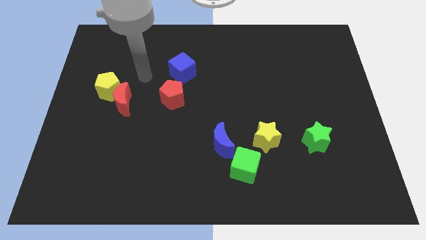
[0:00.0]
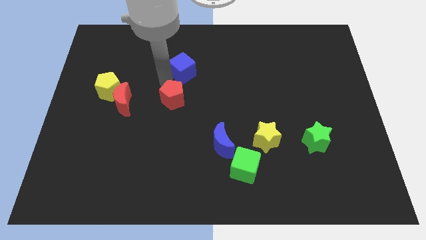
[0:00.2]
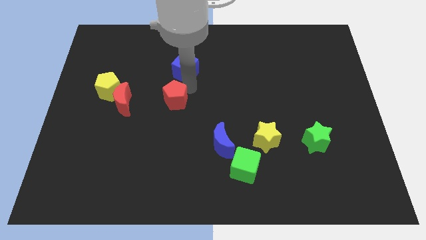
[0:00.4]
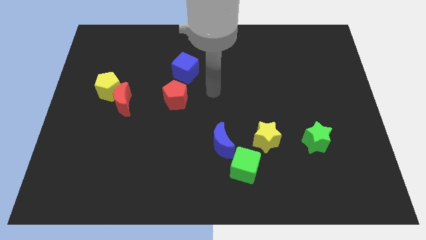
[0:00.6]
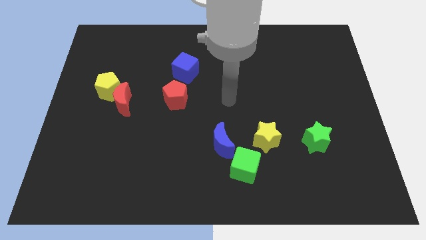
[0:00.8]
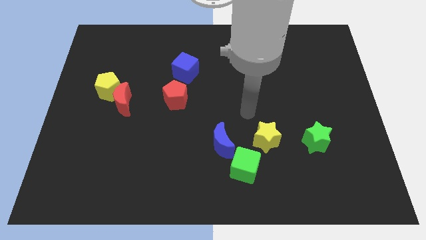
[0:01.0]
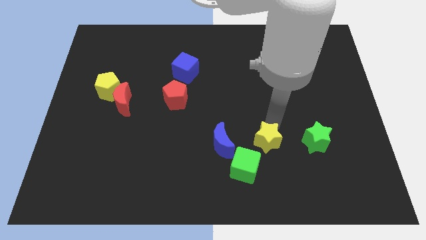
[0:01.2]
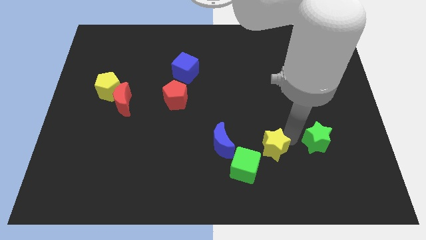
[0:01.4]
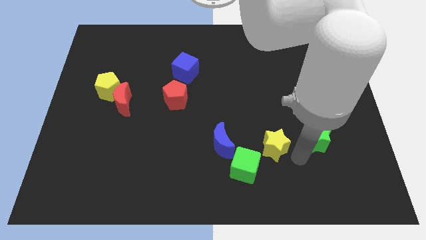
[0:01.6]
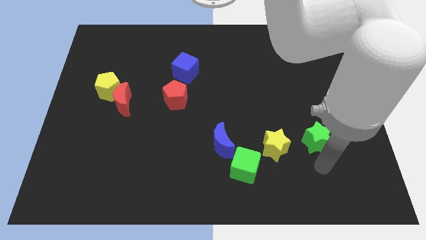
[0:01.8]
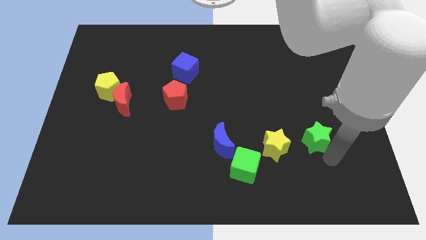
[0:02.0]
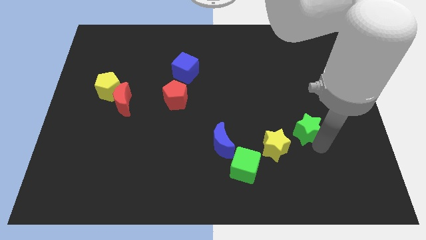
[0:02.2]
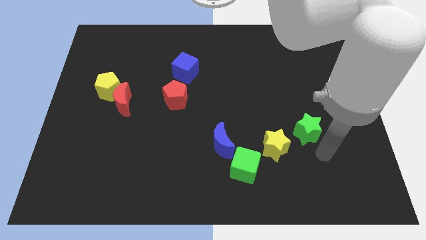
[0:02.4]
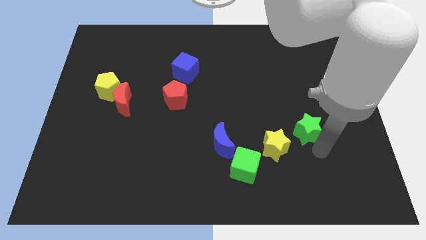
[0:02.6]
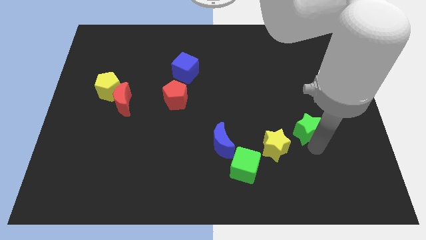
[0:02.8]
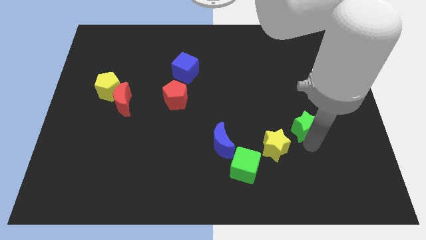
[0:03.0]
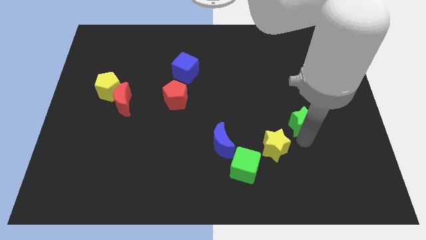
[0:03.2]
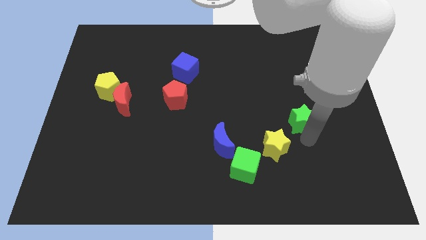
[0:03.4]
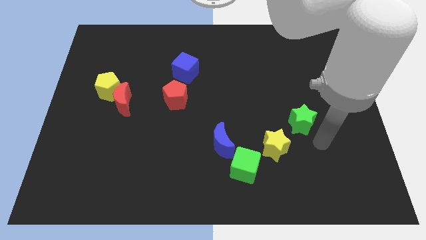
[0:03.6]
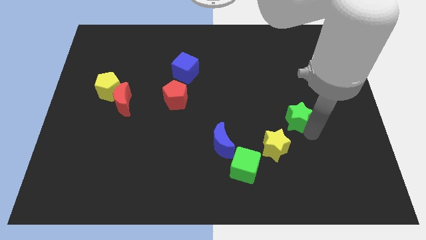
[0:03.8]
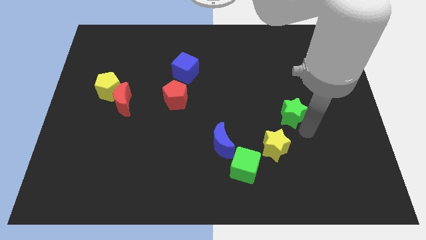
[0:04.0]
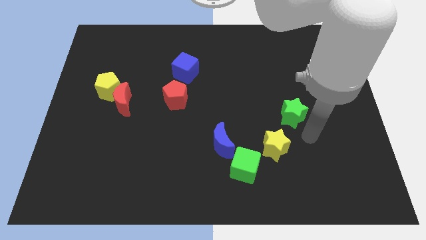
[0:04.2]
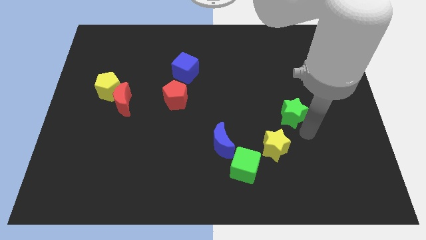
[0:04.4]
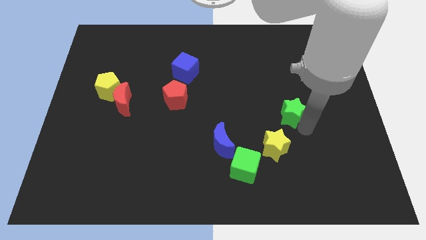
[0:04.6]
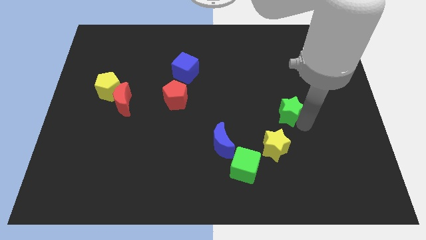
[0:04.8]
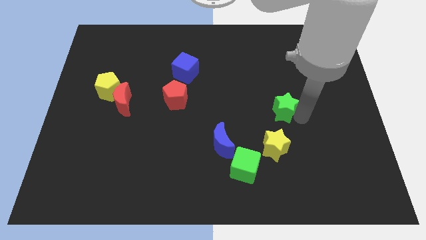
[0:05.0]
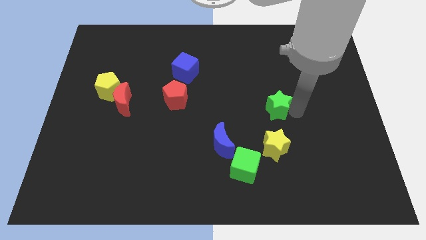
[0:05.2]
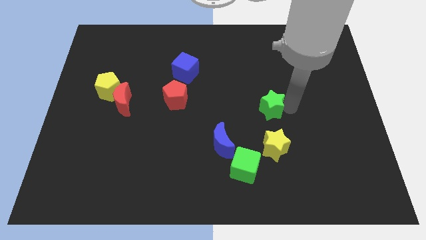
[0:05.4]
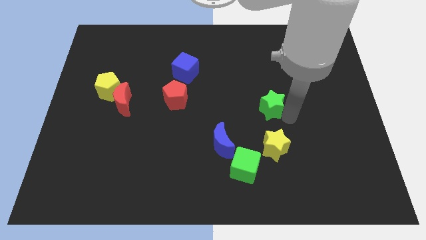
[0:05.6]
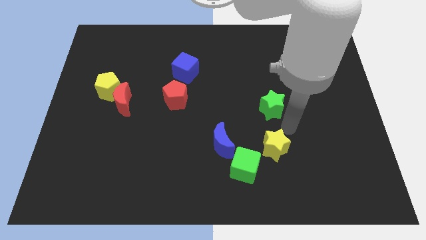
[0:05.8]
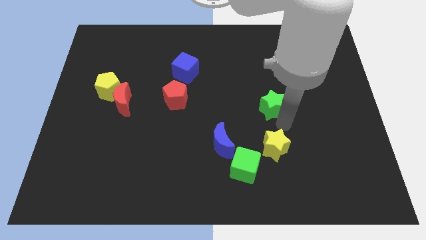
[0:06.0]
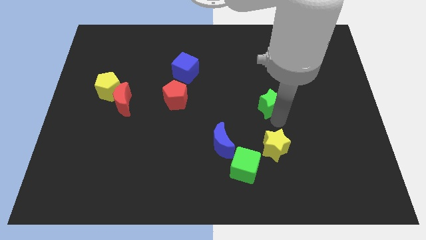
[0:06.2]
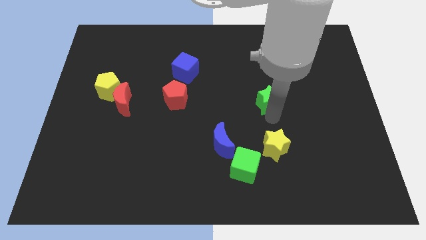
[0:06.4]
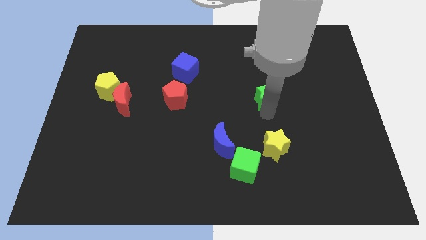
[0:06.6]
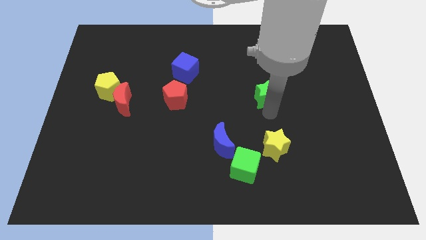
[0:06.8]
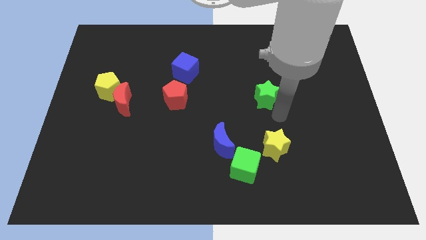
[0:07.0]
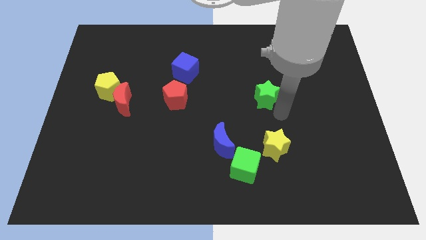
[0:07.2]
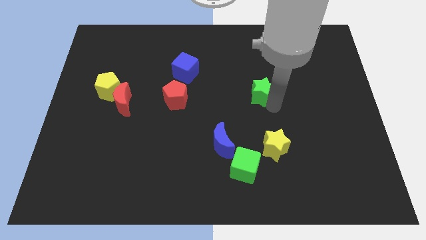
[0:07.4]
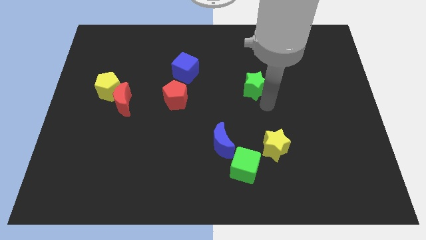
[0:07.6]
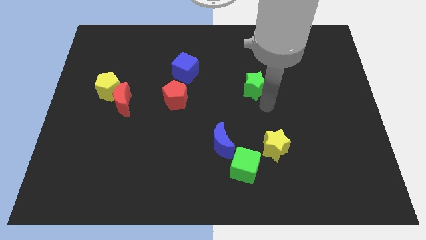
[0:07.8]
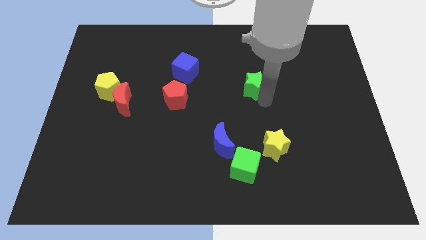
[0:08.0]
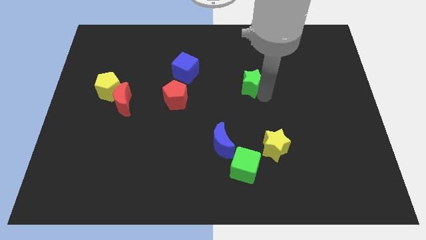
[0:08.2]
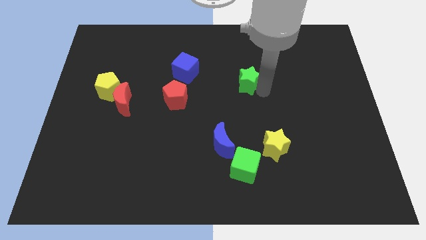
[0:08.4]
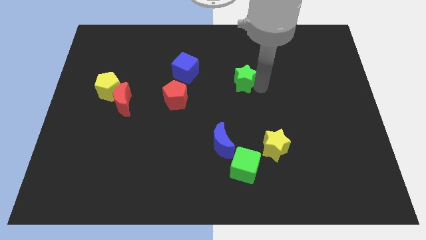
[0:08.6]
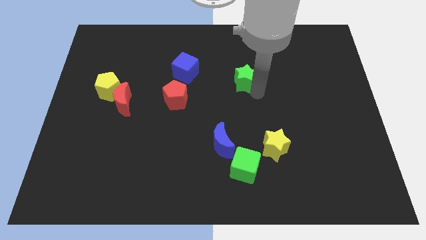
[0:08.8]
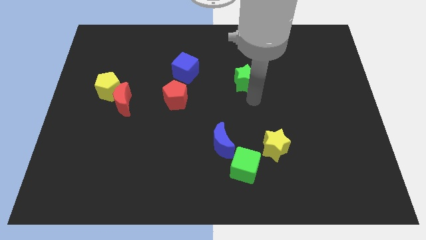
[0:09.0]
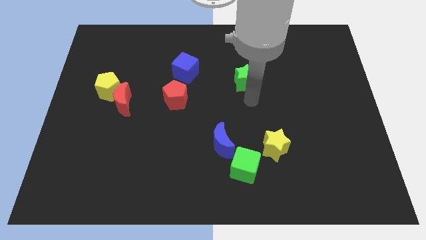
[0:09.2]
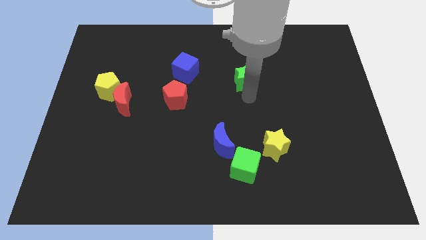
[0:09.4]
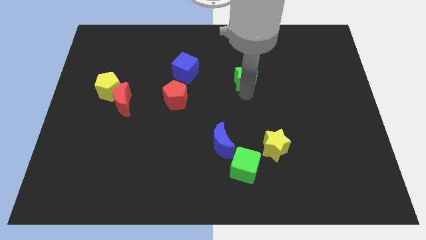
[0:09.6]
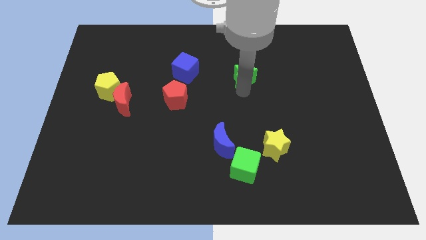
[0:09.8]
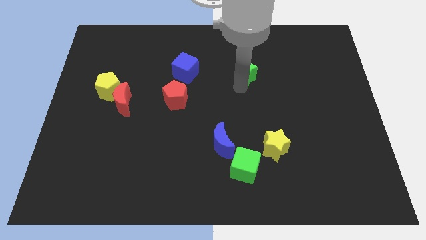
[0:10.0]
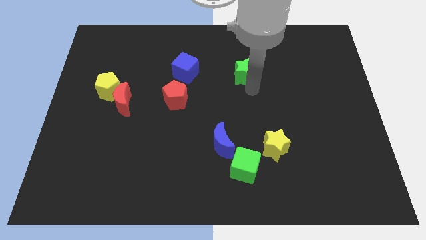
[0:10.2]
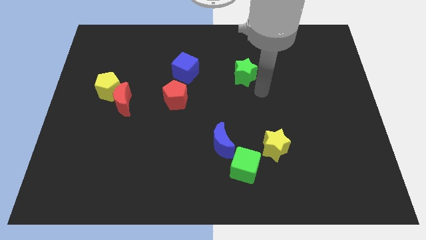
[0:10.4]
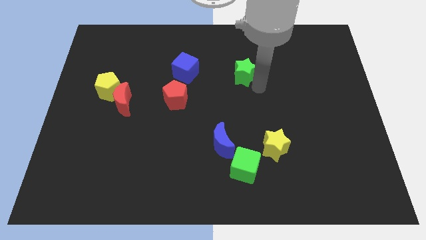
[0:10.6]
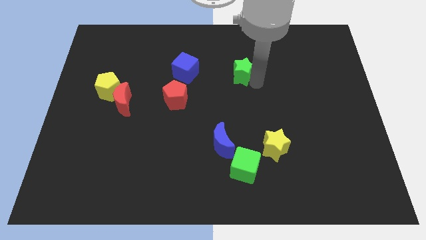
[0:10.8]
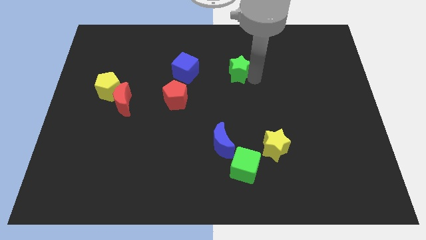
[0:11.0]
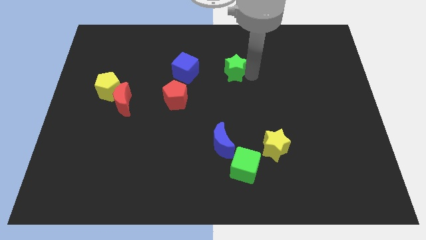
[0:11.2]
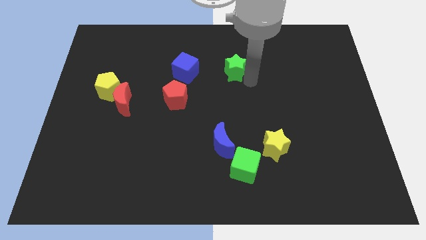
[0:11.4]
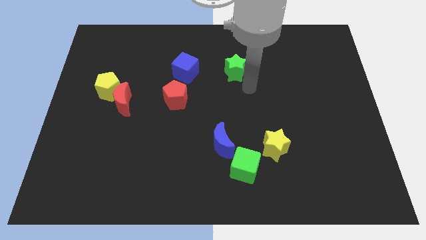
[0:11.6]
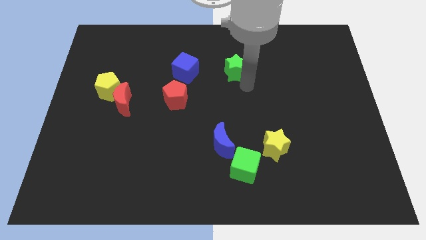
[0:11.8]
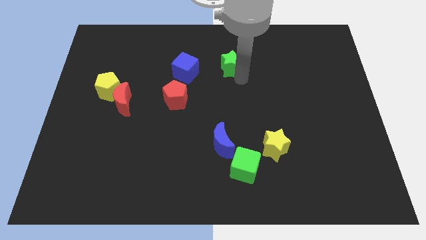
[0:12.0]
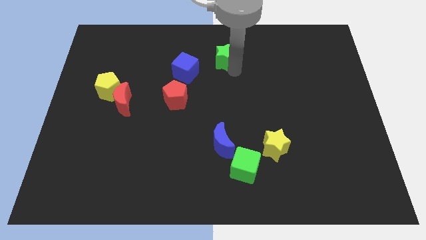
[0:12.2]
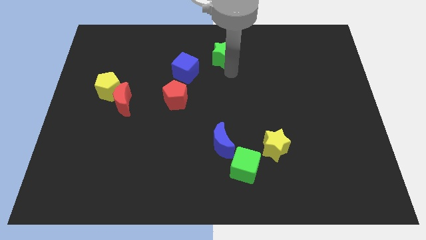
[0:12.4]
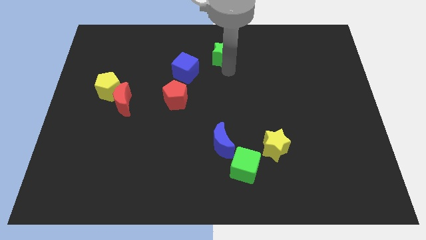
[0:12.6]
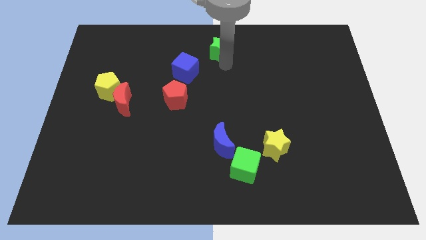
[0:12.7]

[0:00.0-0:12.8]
move the green star to the towards your base
